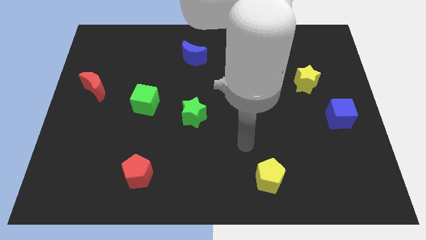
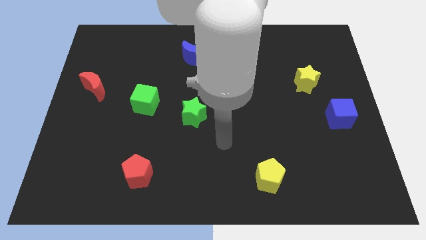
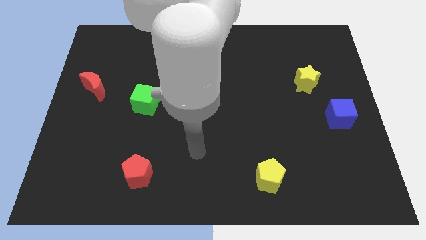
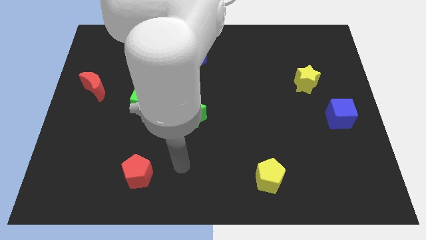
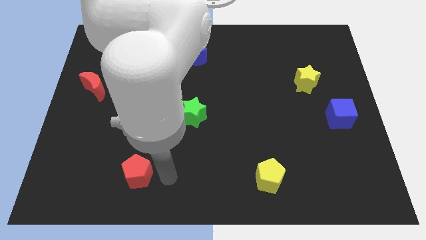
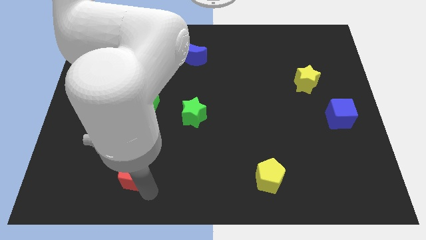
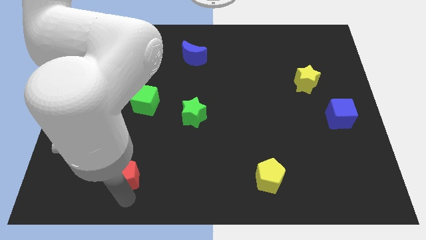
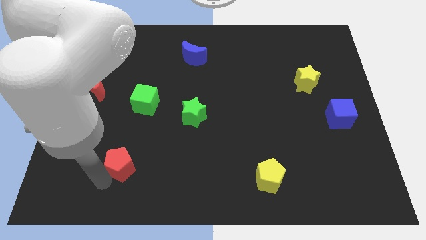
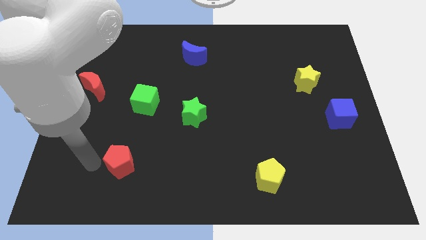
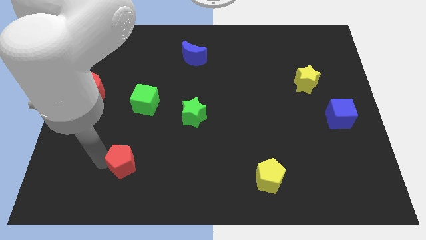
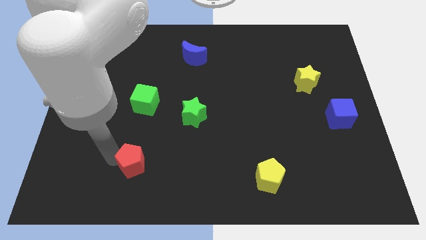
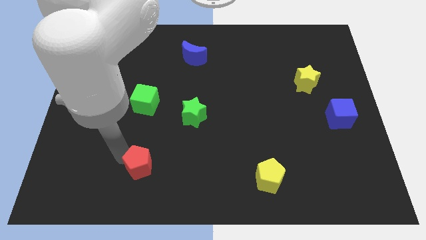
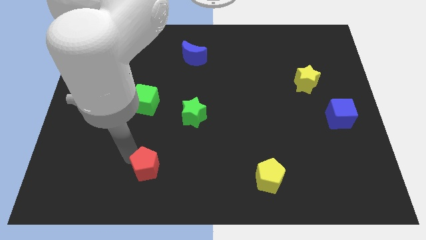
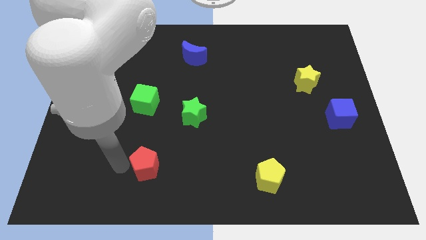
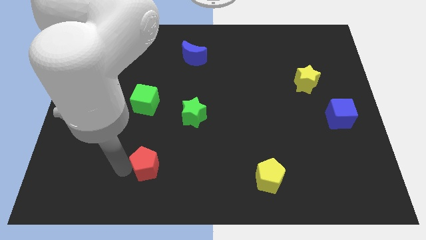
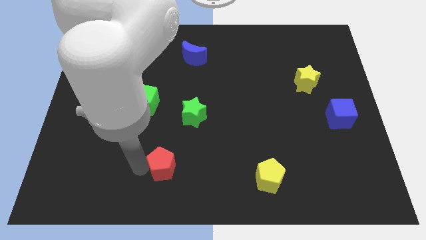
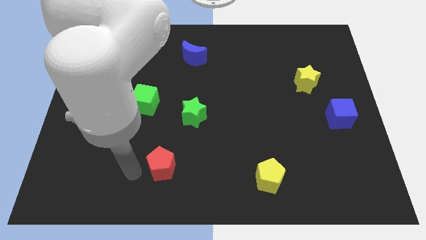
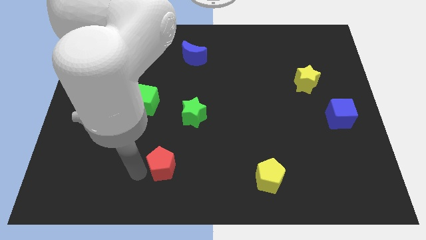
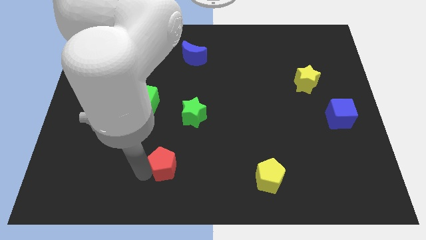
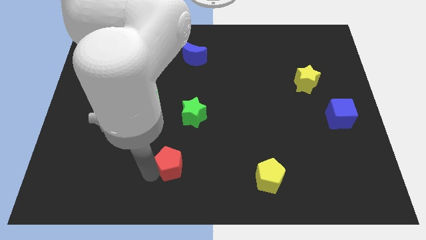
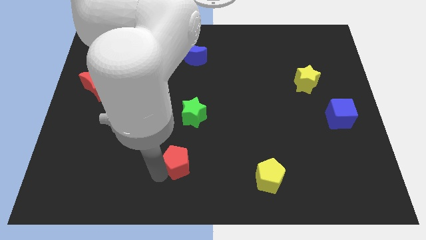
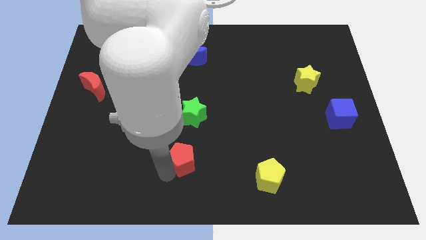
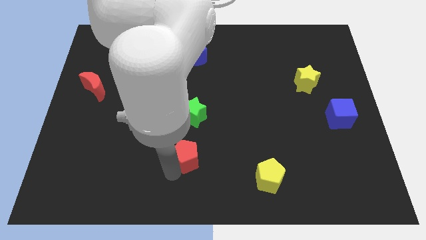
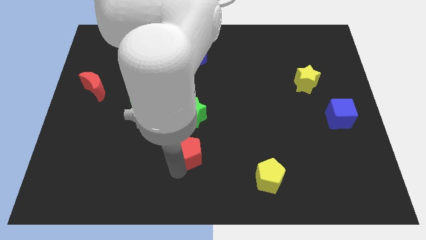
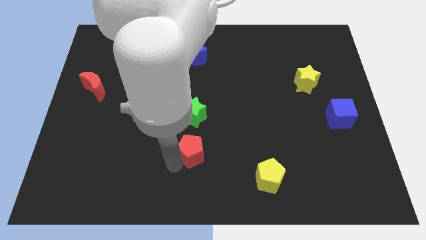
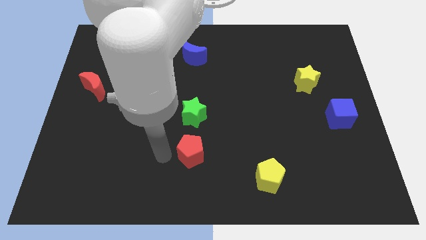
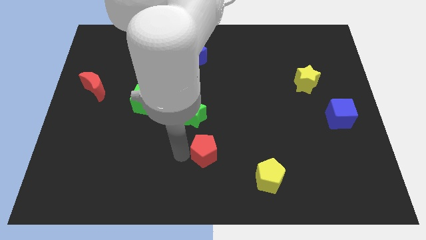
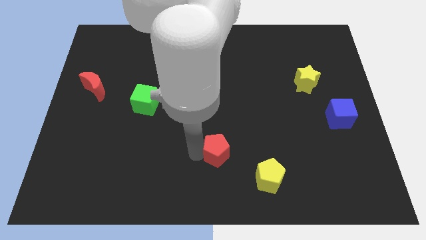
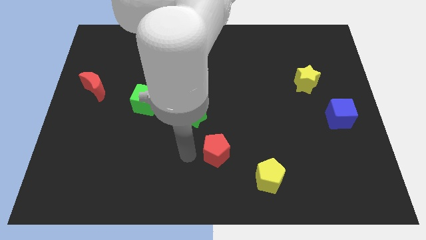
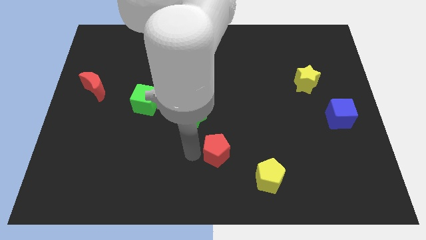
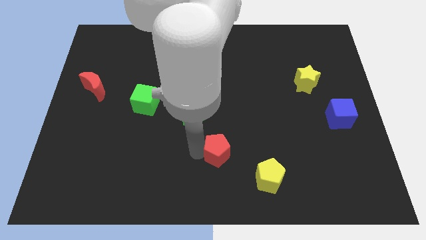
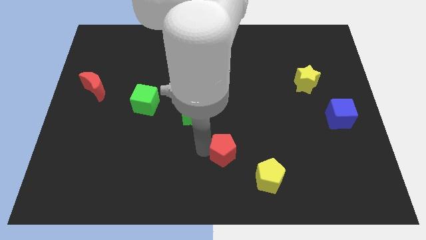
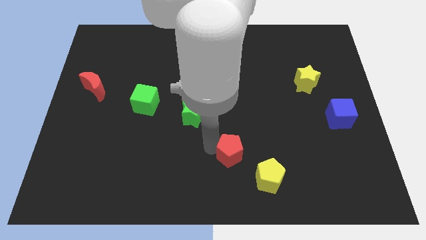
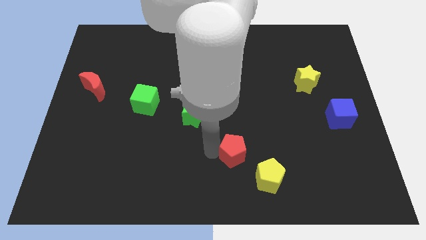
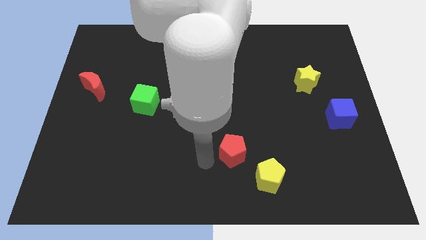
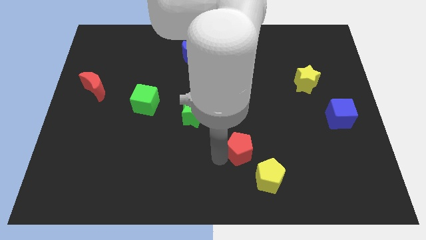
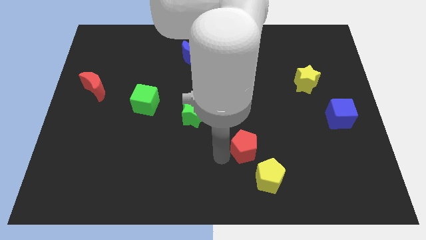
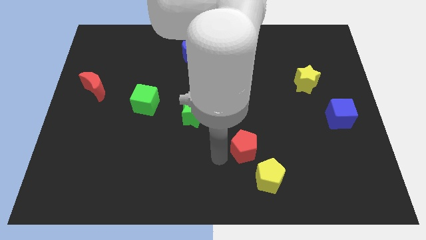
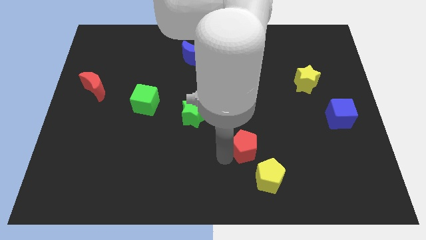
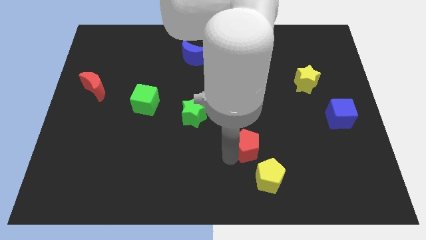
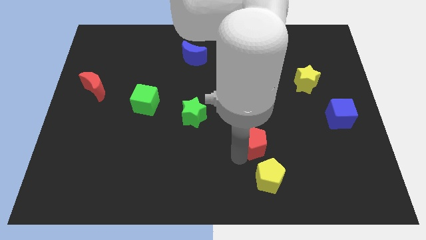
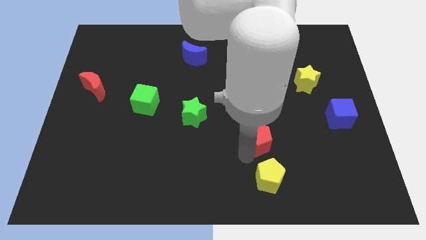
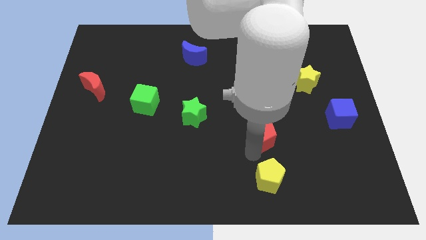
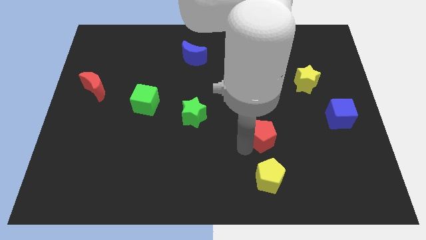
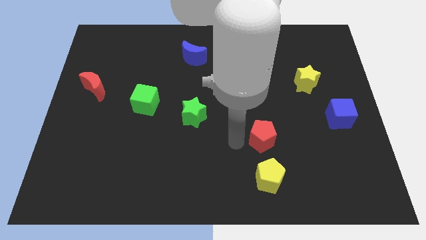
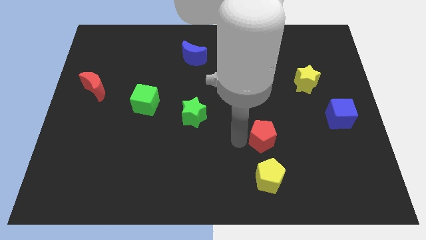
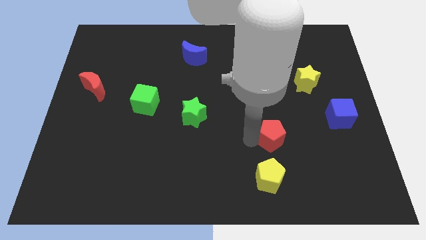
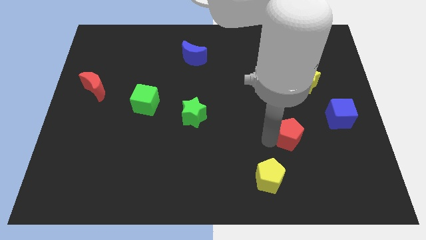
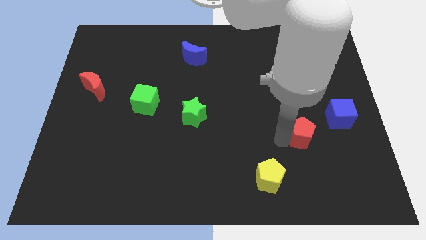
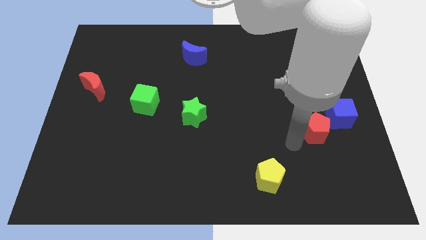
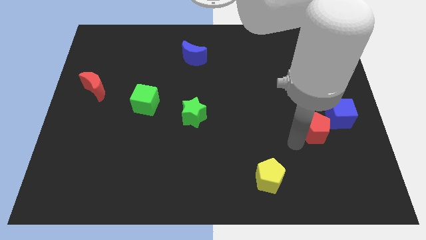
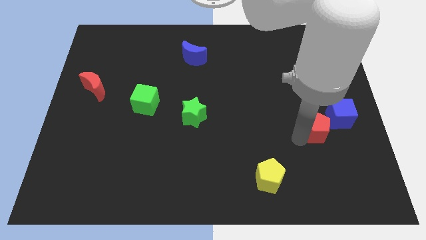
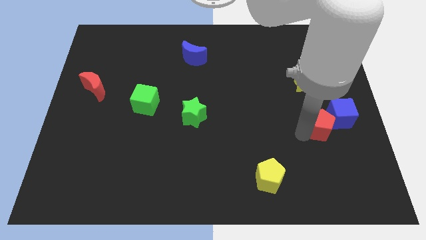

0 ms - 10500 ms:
slide the red pentagon close to the blue cube

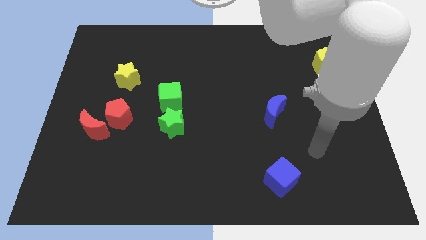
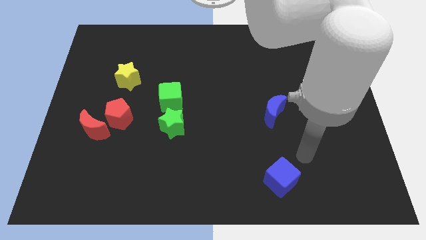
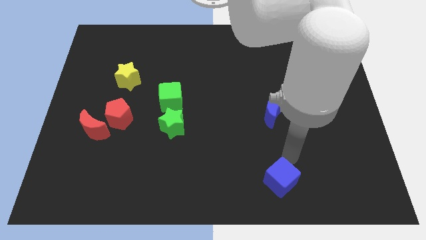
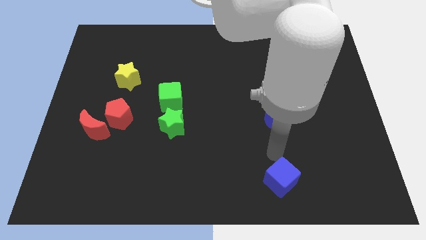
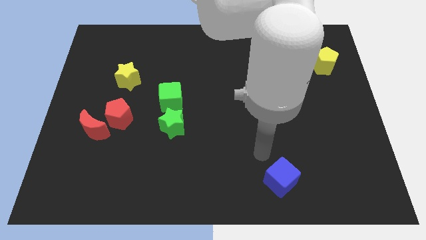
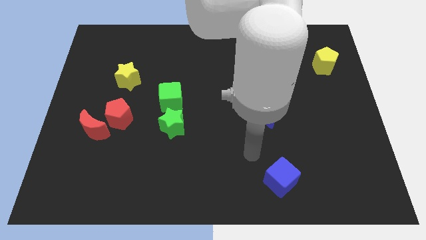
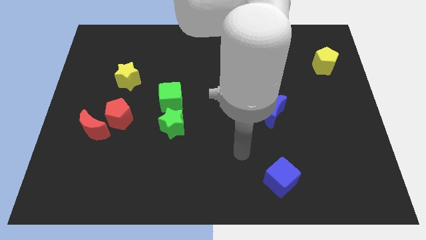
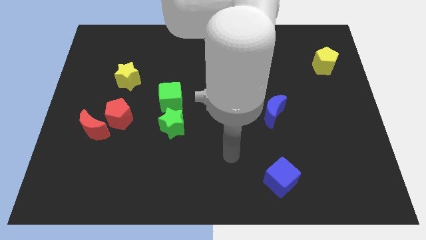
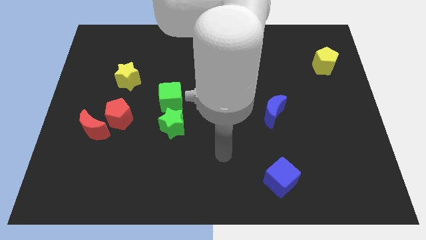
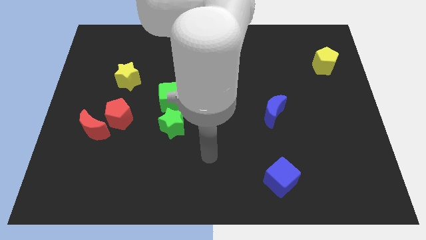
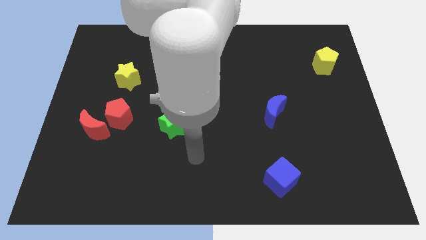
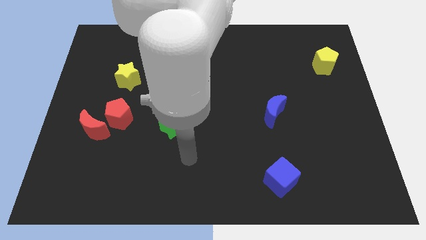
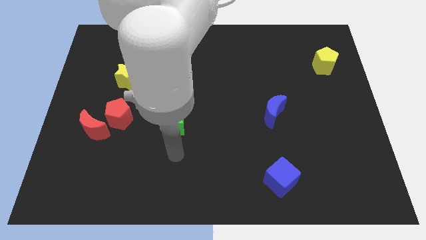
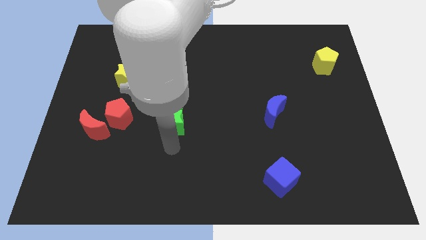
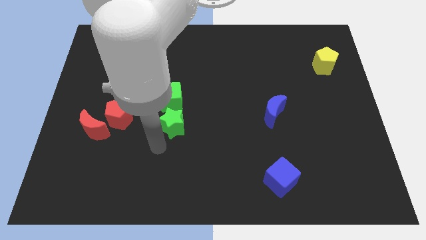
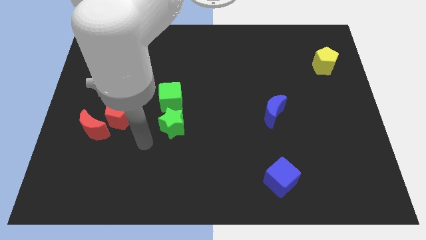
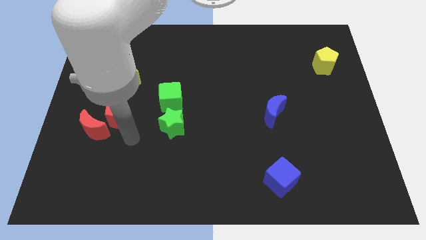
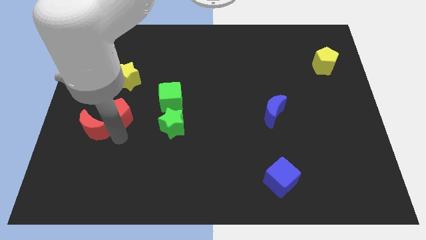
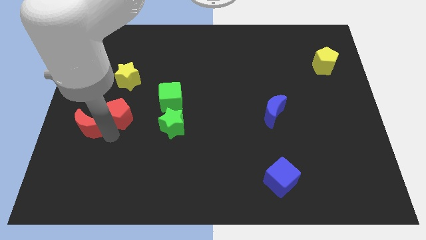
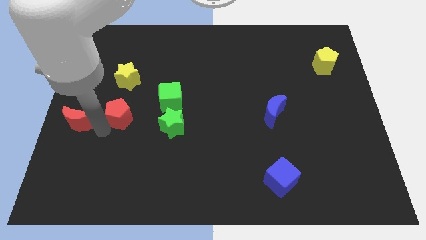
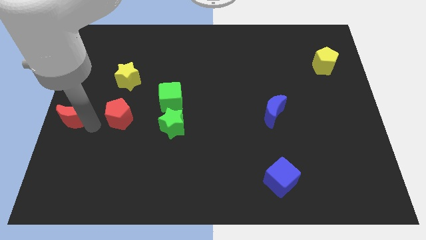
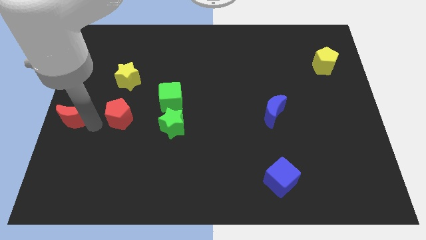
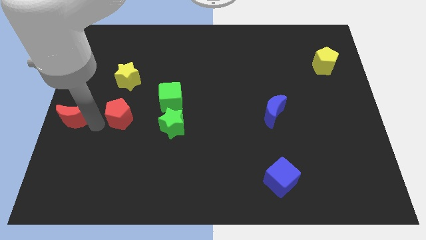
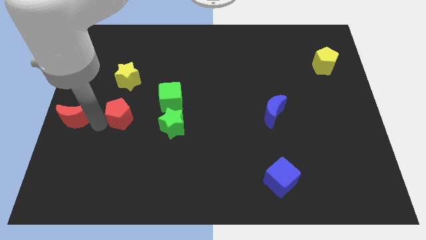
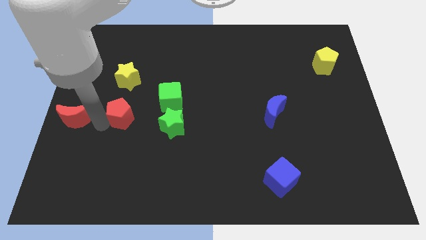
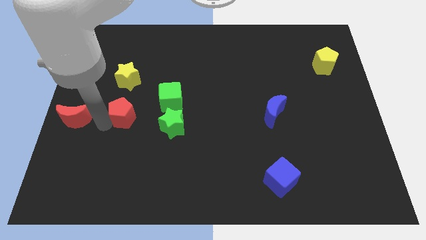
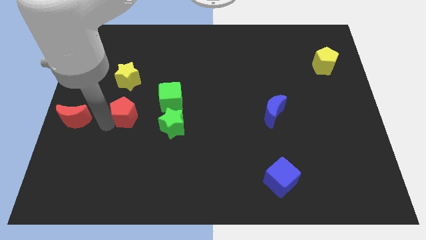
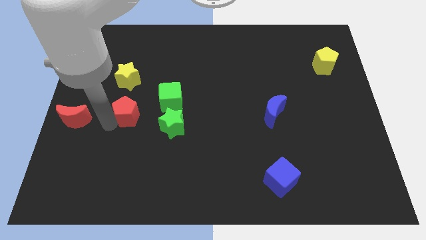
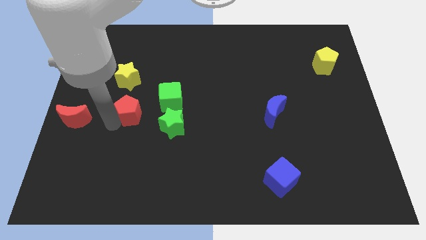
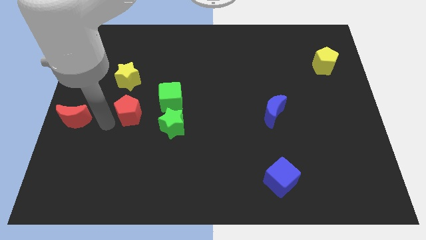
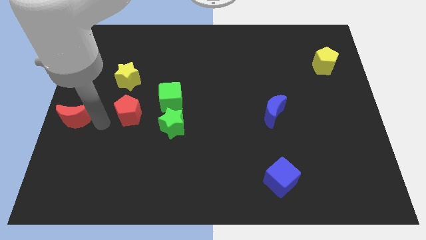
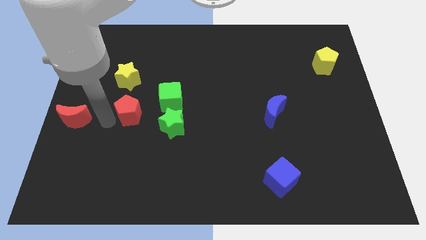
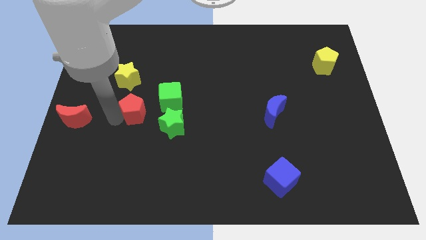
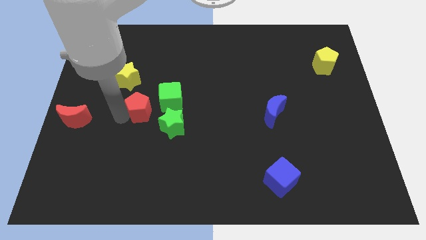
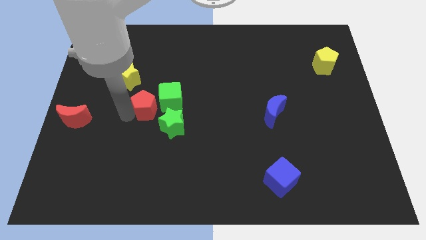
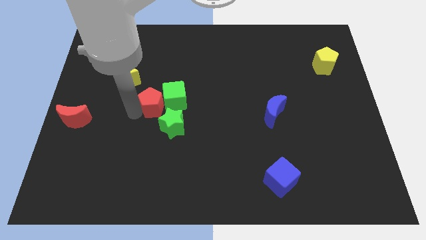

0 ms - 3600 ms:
slide the red pentagon close to the green cube
